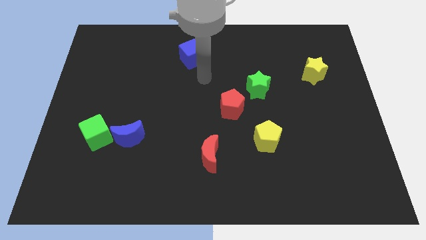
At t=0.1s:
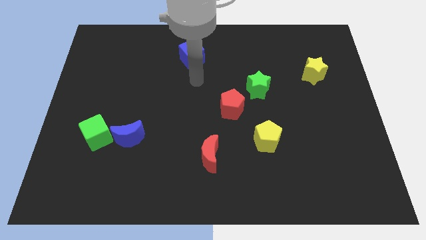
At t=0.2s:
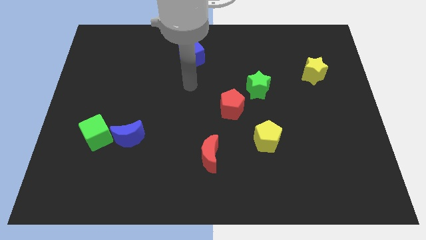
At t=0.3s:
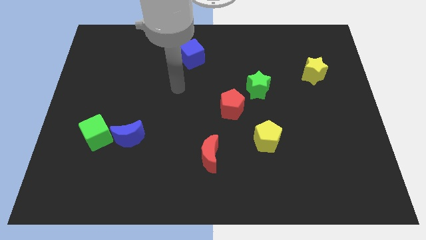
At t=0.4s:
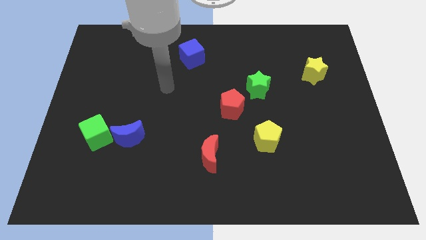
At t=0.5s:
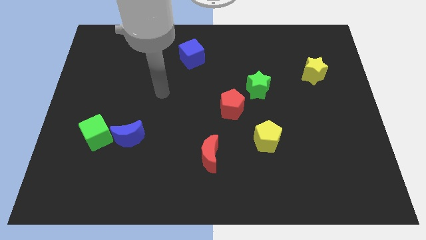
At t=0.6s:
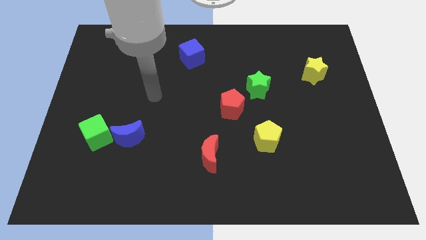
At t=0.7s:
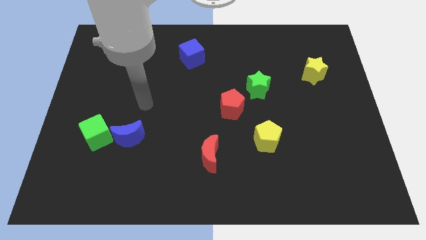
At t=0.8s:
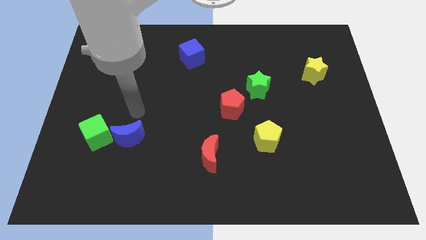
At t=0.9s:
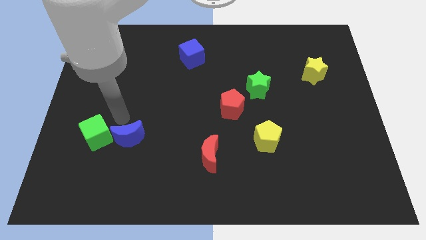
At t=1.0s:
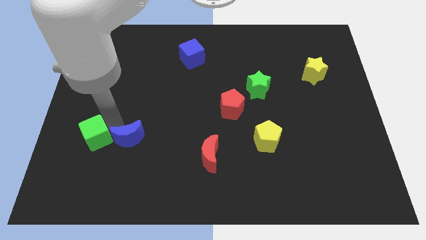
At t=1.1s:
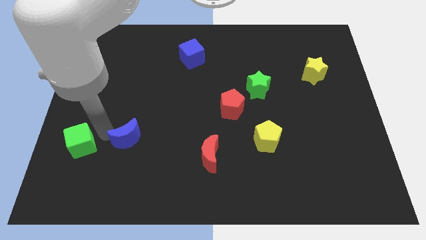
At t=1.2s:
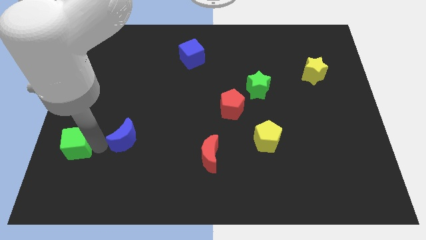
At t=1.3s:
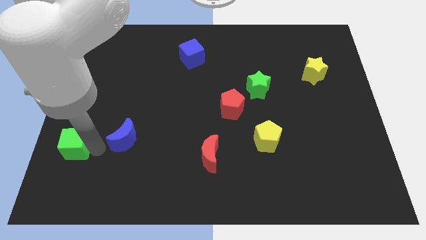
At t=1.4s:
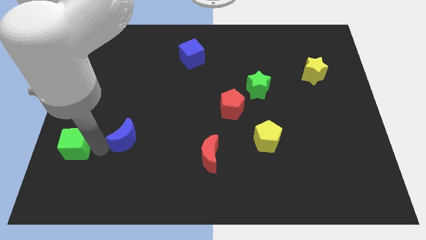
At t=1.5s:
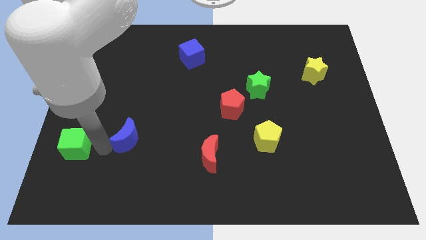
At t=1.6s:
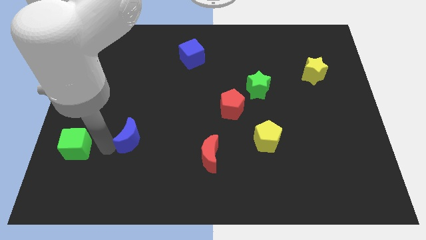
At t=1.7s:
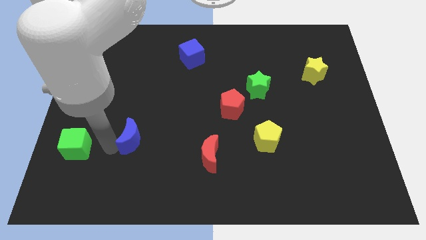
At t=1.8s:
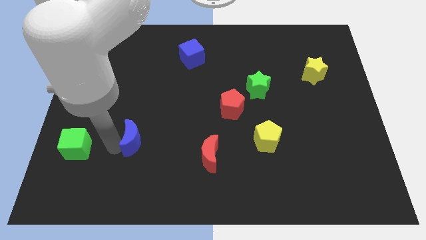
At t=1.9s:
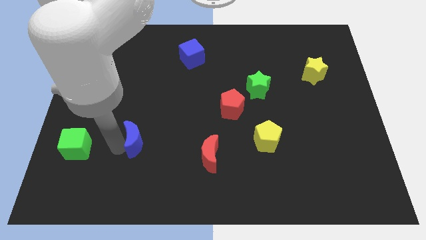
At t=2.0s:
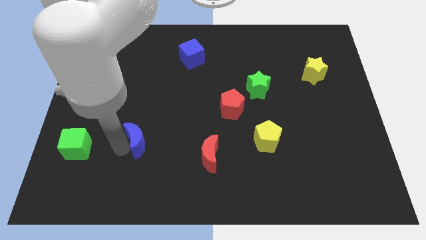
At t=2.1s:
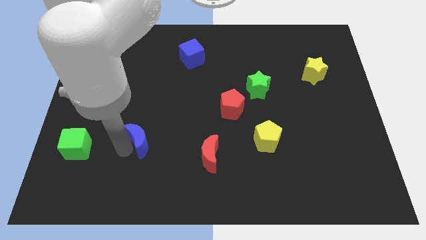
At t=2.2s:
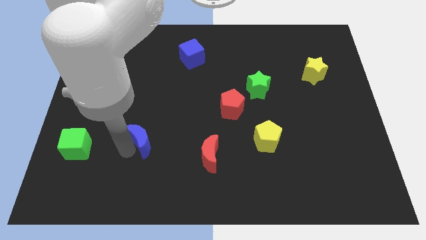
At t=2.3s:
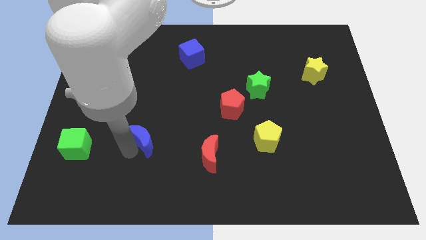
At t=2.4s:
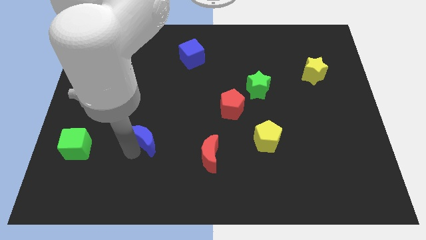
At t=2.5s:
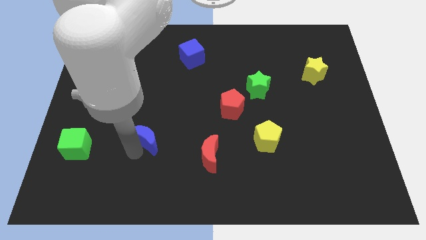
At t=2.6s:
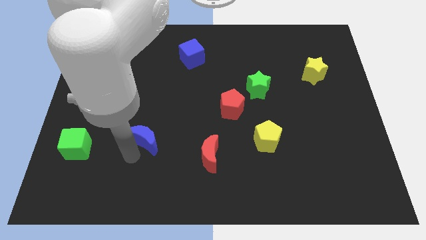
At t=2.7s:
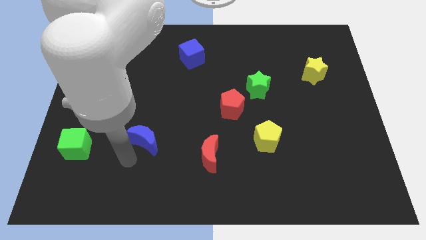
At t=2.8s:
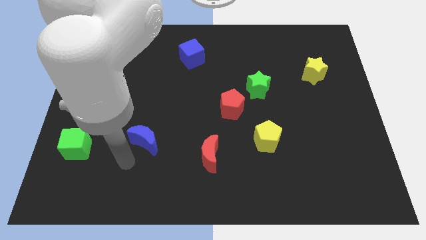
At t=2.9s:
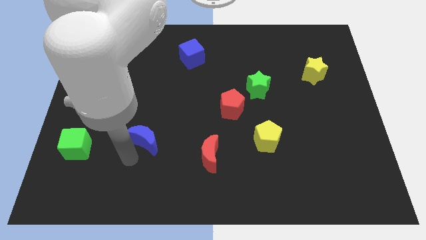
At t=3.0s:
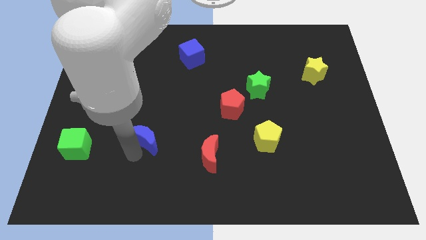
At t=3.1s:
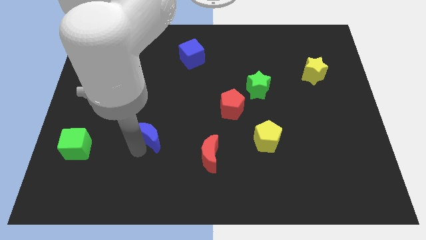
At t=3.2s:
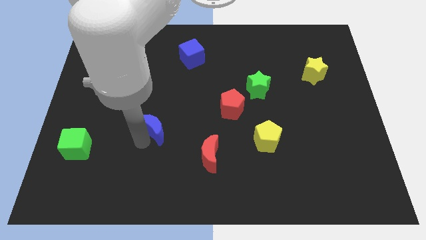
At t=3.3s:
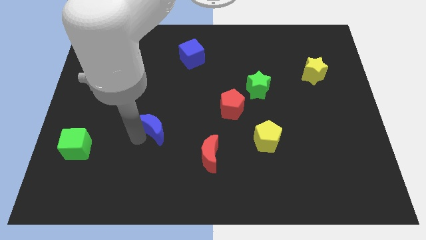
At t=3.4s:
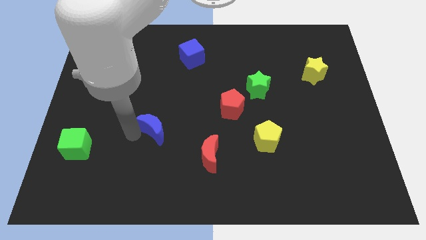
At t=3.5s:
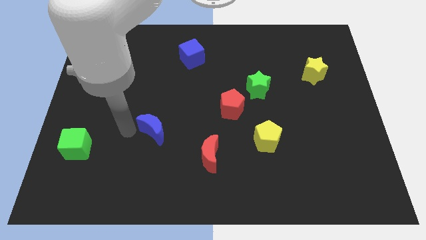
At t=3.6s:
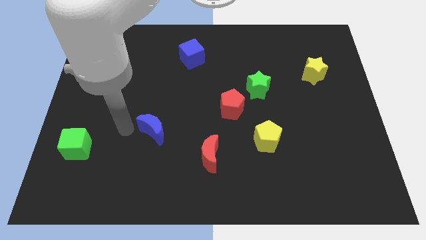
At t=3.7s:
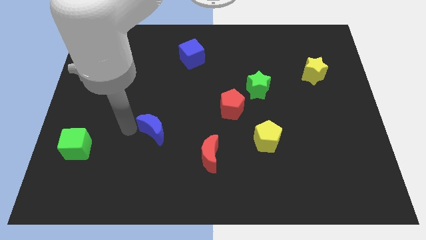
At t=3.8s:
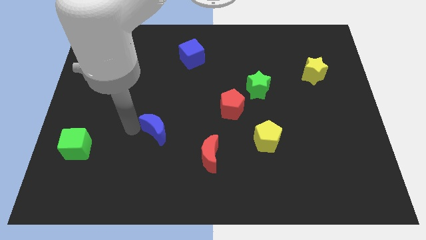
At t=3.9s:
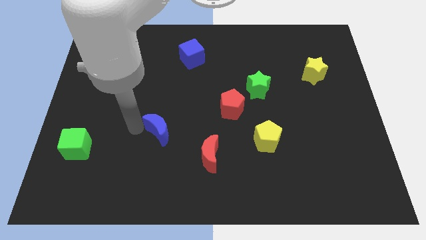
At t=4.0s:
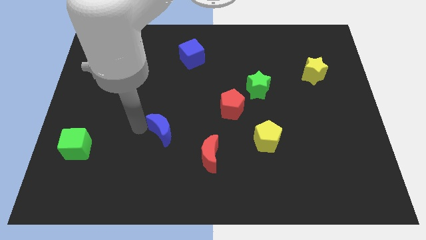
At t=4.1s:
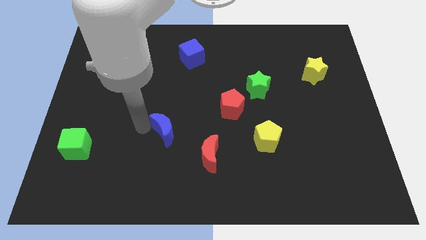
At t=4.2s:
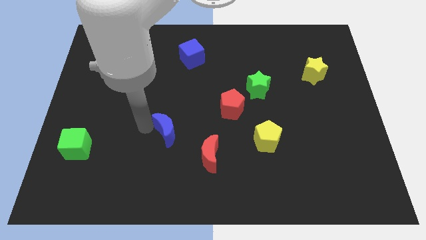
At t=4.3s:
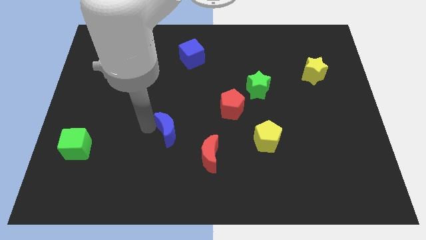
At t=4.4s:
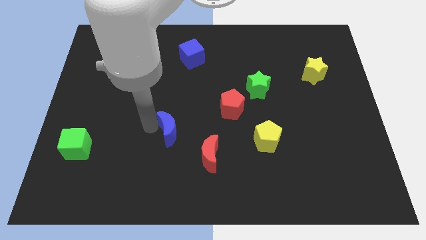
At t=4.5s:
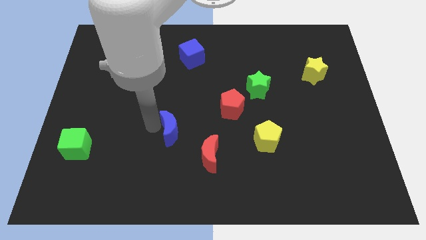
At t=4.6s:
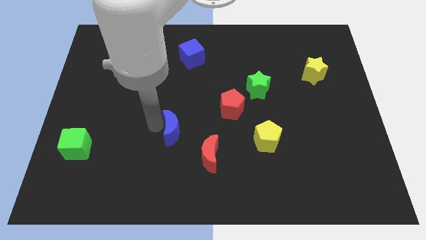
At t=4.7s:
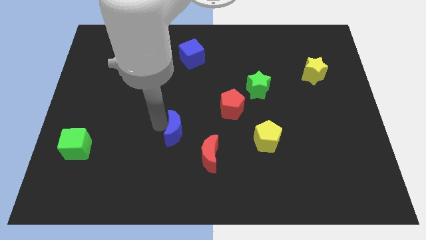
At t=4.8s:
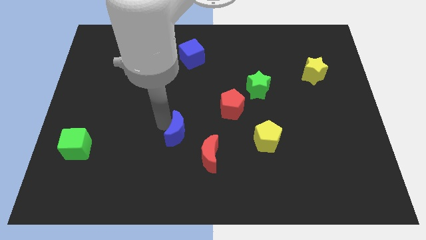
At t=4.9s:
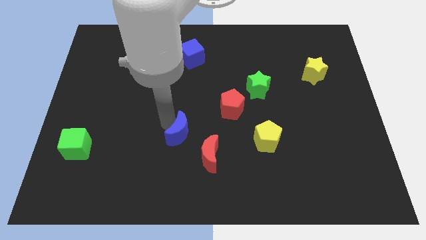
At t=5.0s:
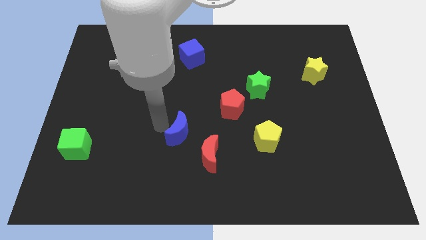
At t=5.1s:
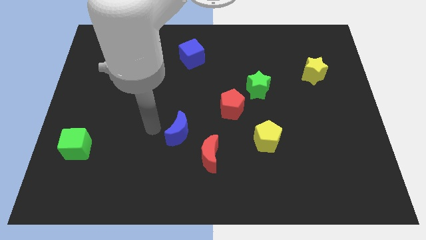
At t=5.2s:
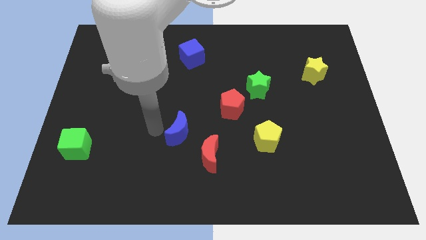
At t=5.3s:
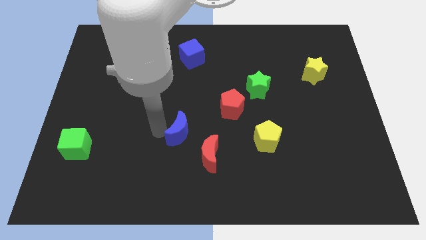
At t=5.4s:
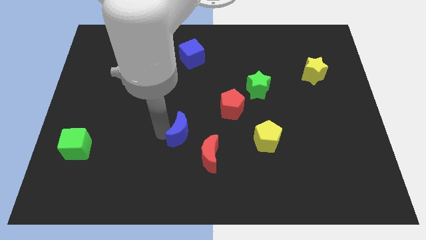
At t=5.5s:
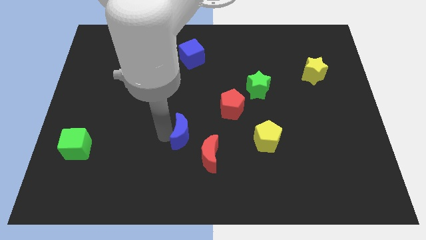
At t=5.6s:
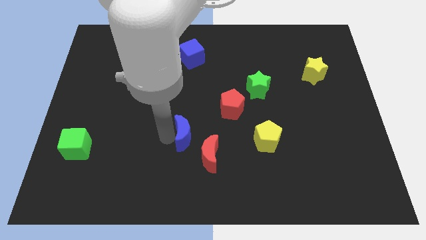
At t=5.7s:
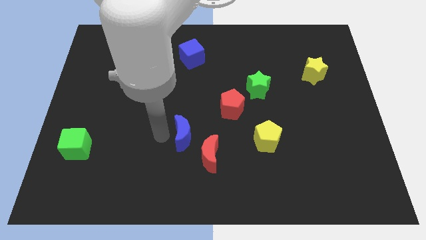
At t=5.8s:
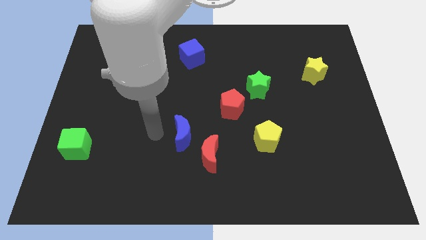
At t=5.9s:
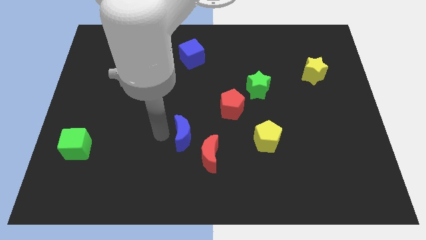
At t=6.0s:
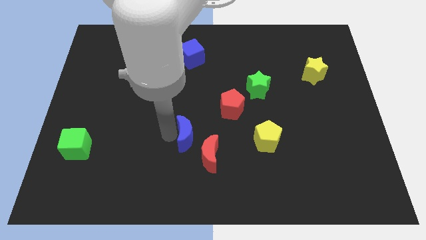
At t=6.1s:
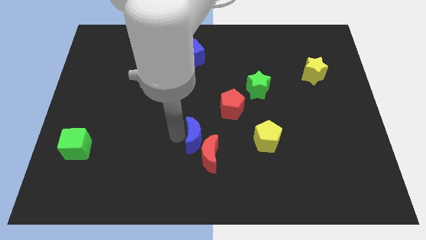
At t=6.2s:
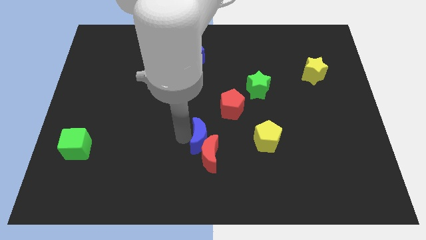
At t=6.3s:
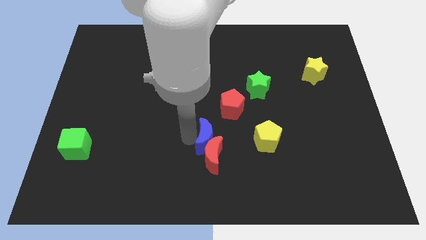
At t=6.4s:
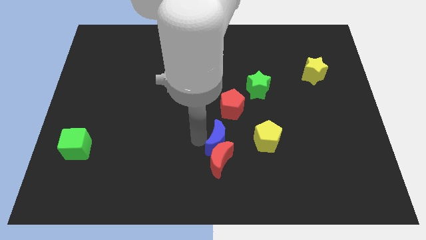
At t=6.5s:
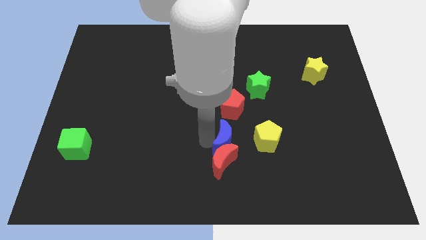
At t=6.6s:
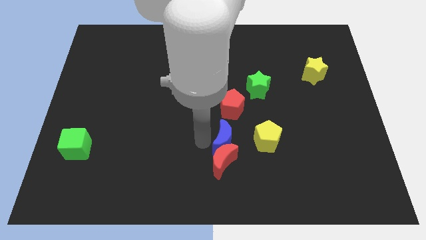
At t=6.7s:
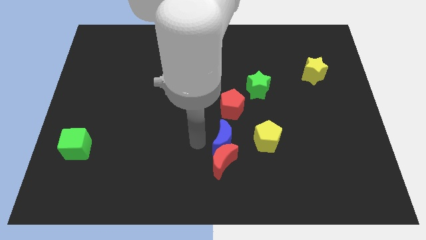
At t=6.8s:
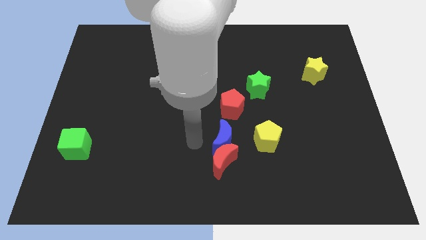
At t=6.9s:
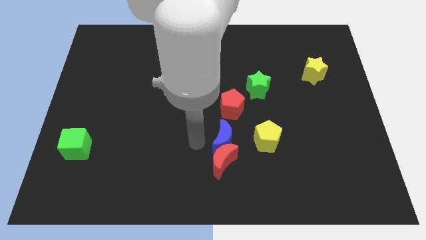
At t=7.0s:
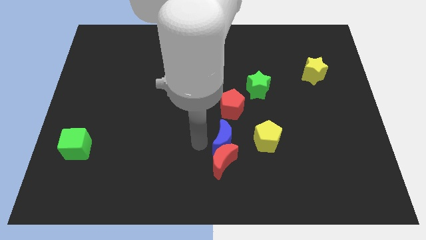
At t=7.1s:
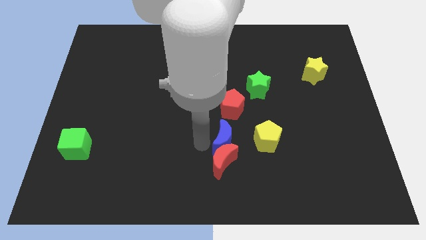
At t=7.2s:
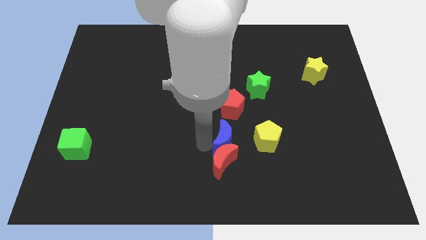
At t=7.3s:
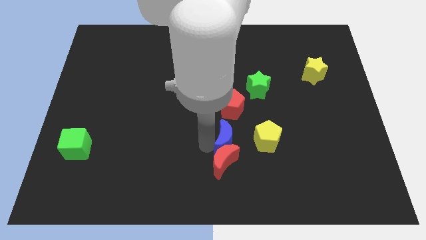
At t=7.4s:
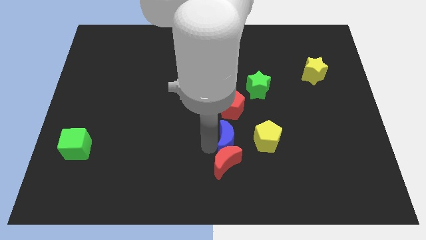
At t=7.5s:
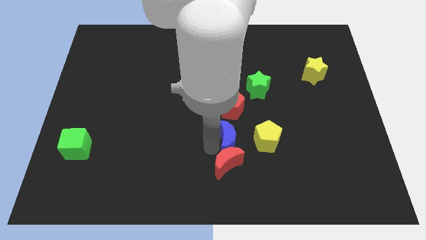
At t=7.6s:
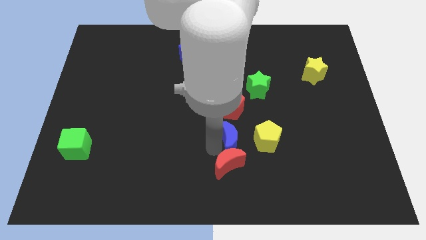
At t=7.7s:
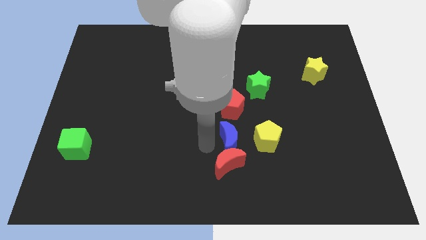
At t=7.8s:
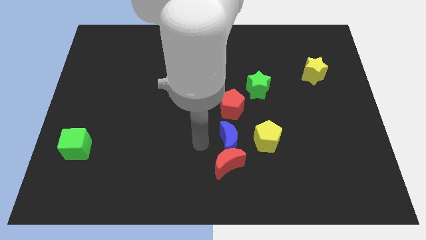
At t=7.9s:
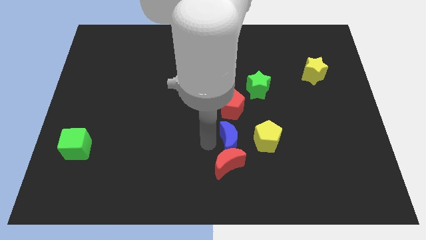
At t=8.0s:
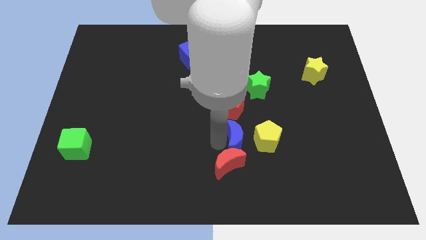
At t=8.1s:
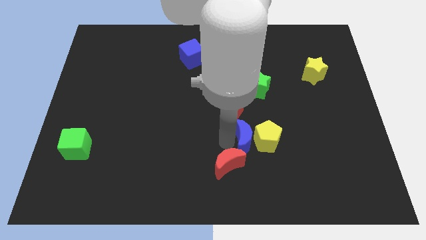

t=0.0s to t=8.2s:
push the blue moon to the yellow pentagon

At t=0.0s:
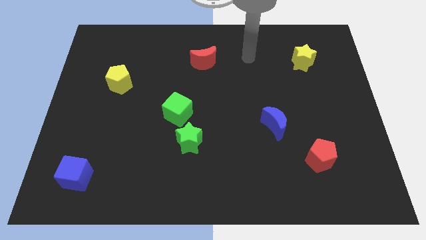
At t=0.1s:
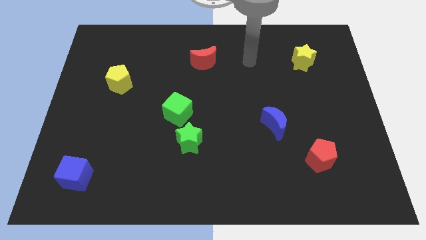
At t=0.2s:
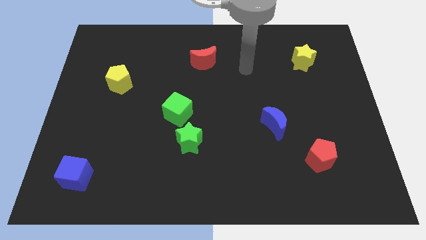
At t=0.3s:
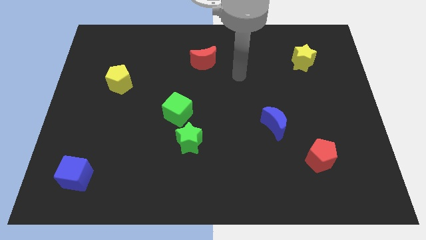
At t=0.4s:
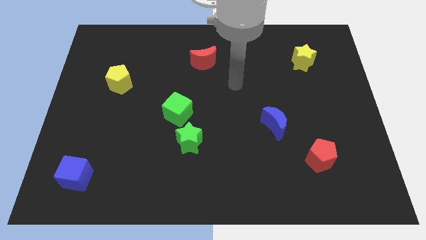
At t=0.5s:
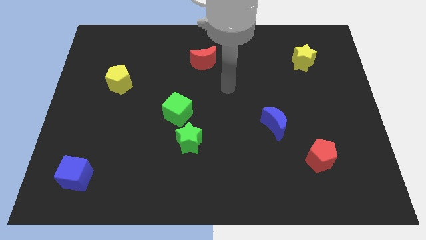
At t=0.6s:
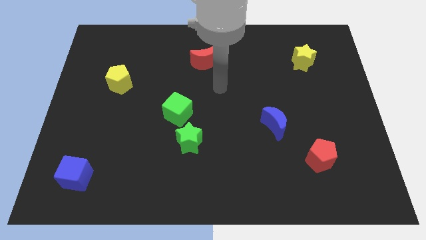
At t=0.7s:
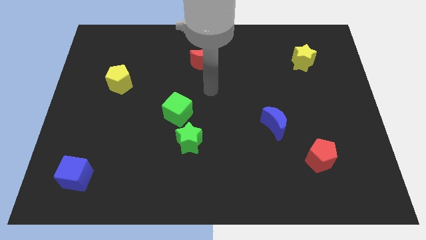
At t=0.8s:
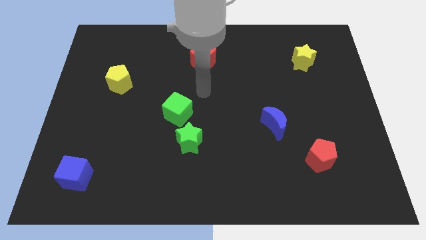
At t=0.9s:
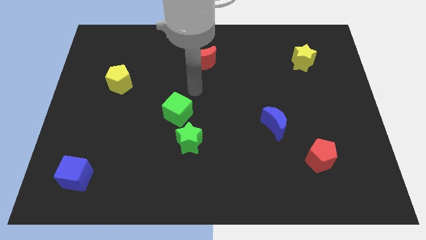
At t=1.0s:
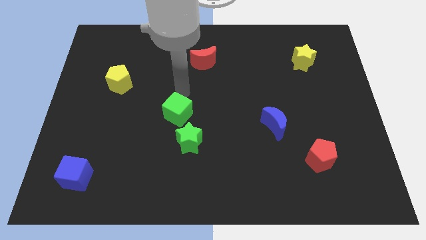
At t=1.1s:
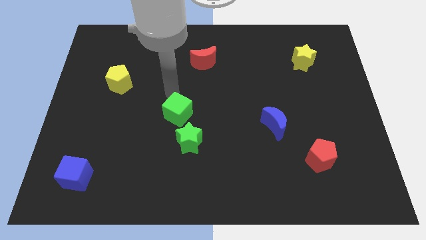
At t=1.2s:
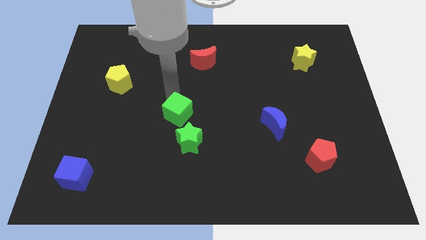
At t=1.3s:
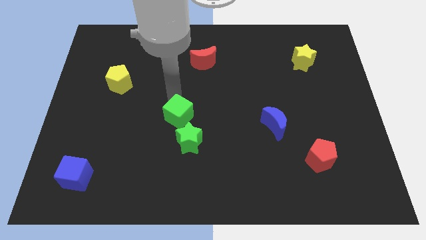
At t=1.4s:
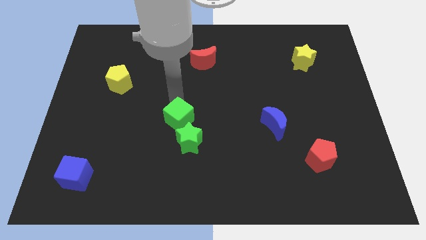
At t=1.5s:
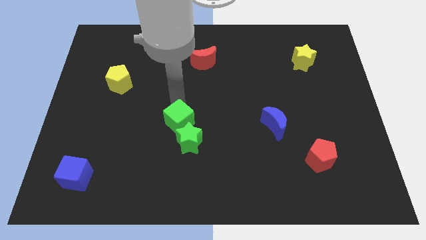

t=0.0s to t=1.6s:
slide the green cube to the green star
